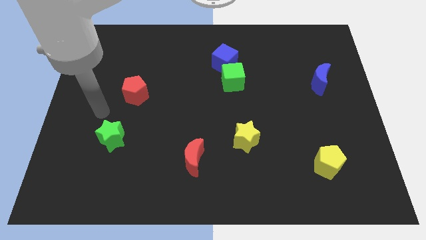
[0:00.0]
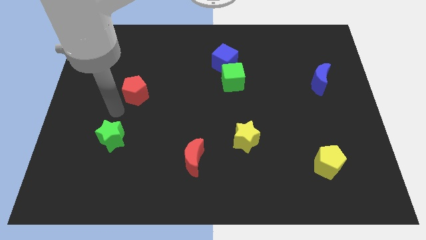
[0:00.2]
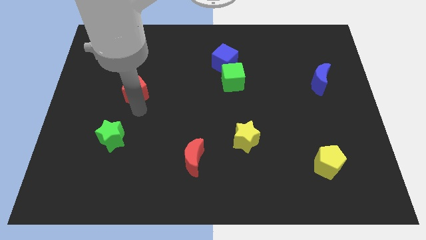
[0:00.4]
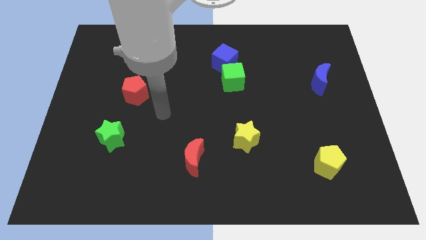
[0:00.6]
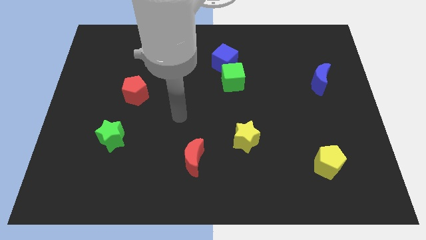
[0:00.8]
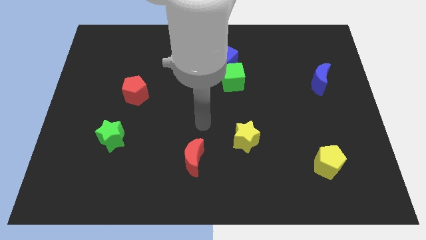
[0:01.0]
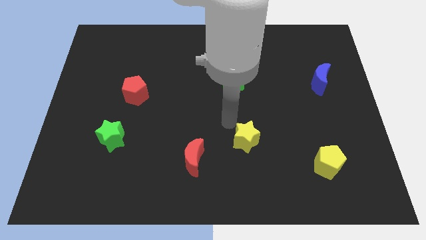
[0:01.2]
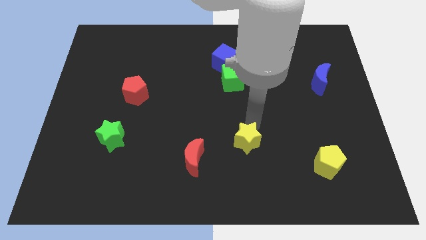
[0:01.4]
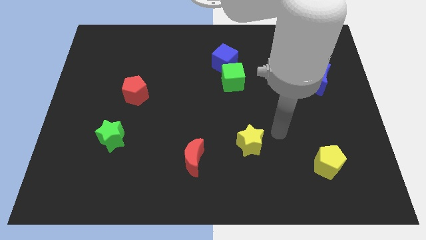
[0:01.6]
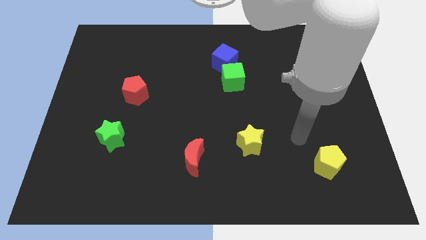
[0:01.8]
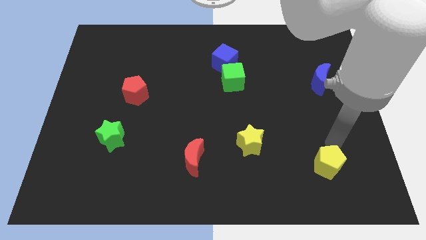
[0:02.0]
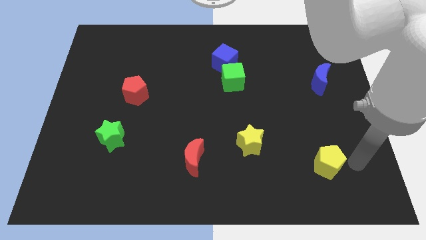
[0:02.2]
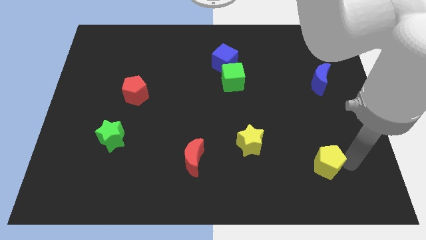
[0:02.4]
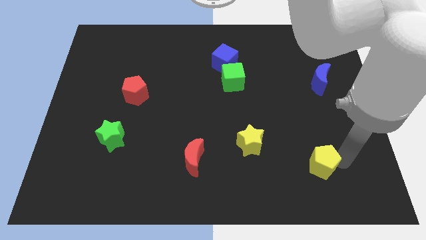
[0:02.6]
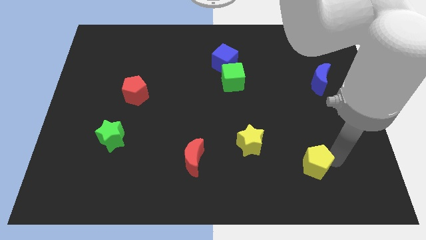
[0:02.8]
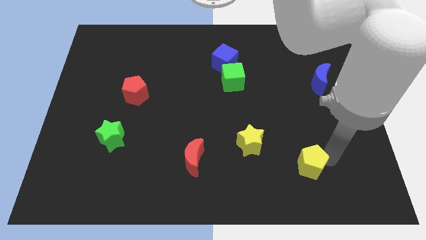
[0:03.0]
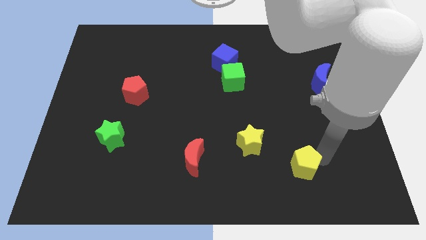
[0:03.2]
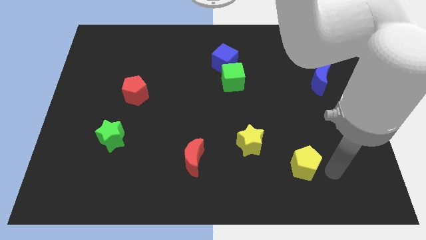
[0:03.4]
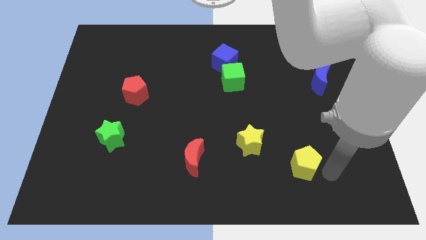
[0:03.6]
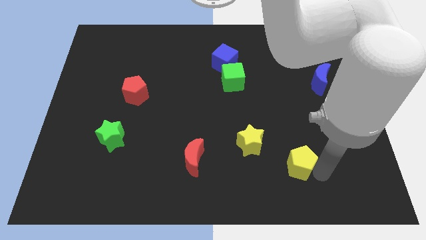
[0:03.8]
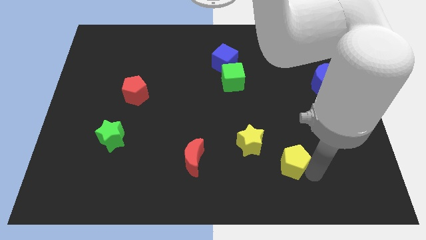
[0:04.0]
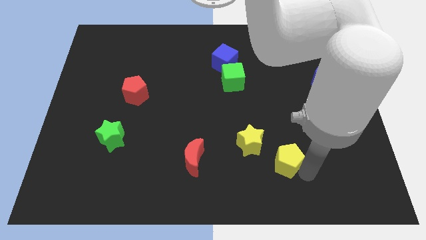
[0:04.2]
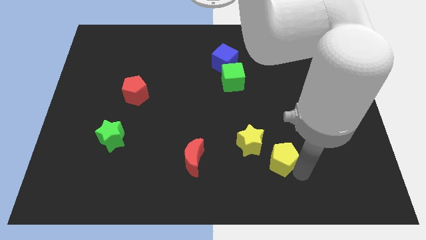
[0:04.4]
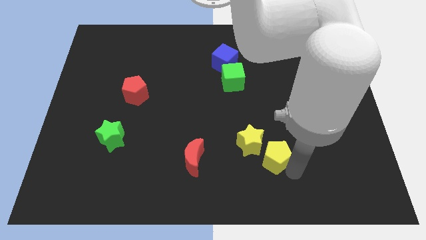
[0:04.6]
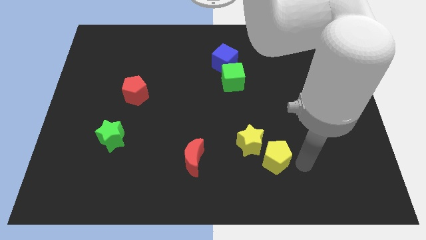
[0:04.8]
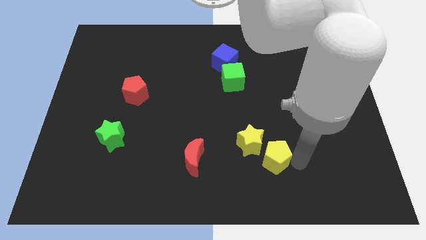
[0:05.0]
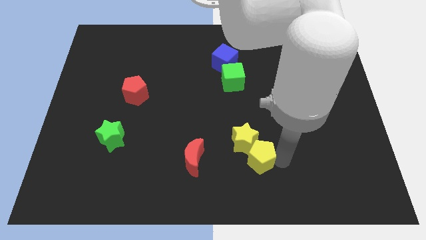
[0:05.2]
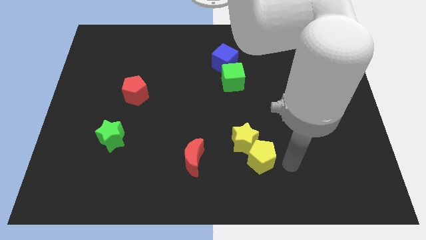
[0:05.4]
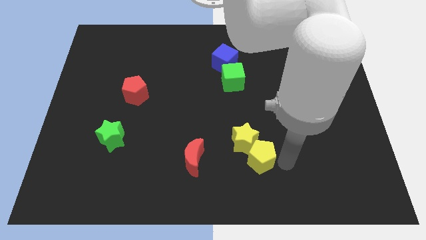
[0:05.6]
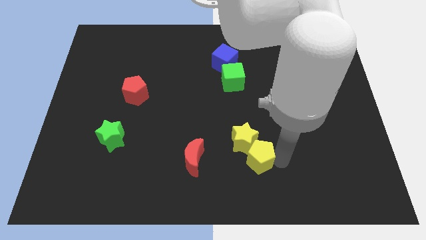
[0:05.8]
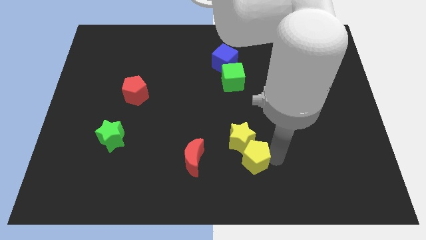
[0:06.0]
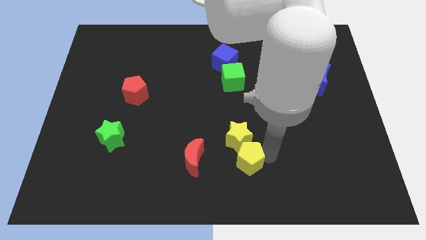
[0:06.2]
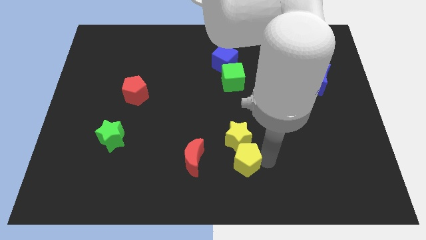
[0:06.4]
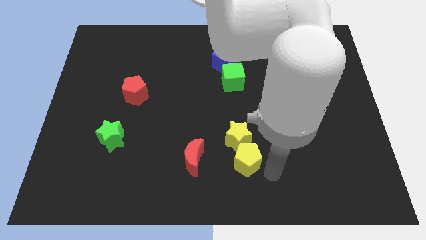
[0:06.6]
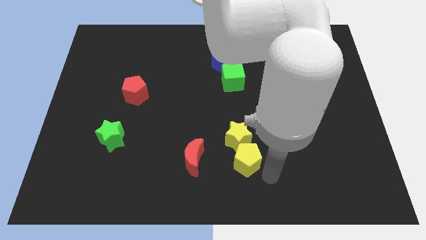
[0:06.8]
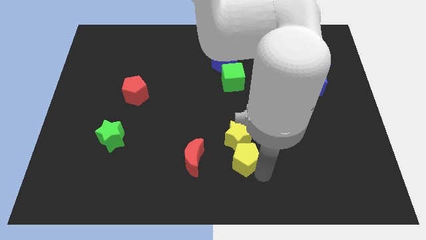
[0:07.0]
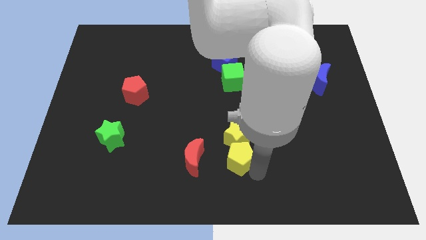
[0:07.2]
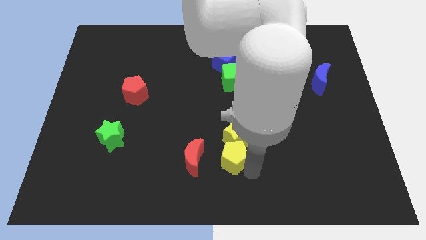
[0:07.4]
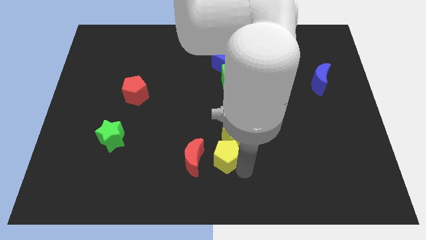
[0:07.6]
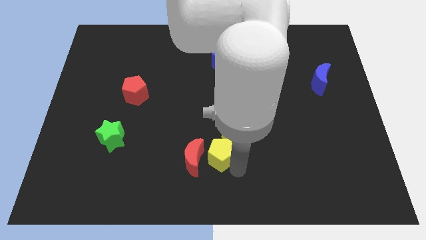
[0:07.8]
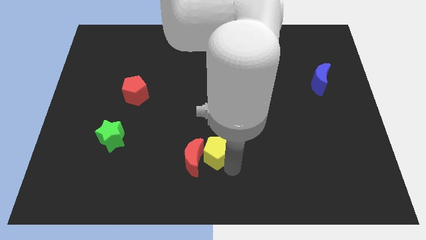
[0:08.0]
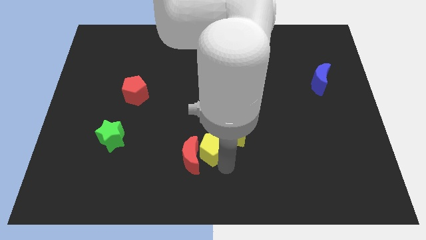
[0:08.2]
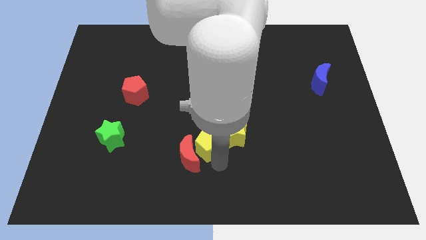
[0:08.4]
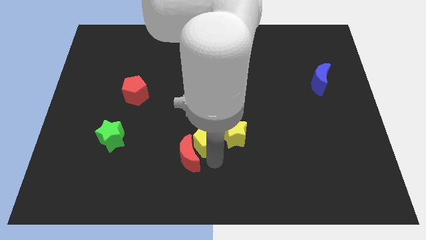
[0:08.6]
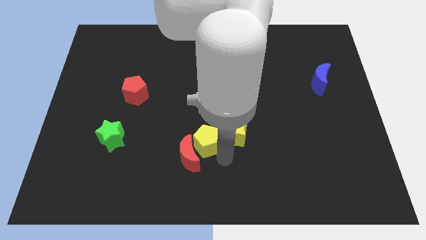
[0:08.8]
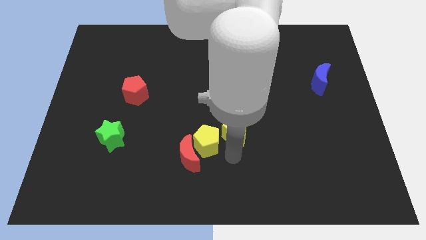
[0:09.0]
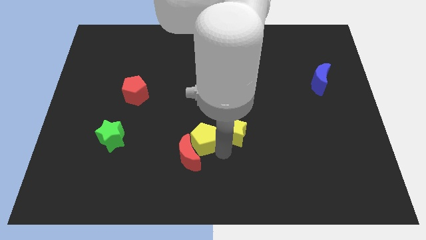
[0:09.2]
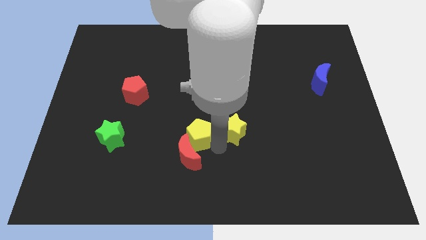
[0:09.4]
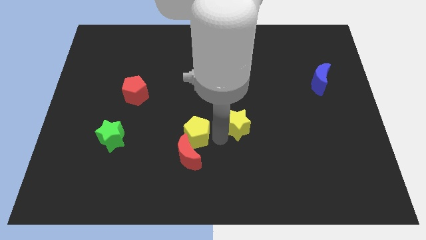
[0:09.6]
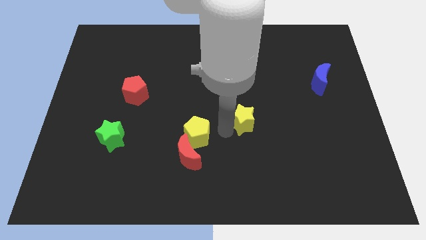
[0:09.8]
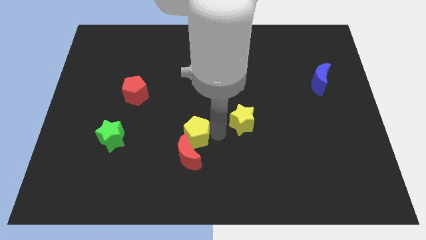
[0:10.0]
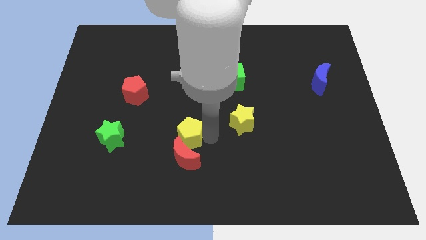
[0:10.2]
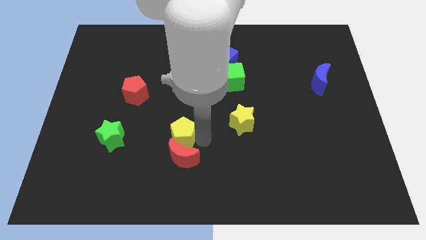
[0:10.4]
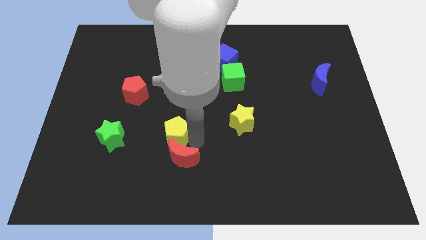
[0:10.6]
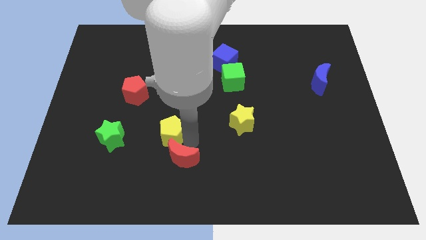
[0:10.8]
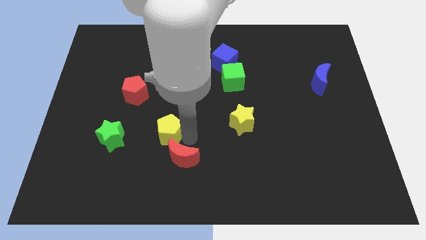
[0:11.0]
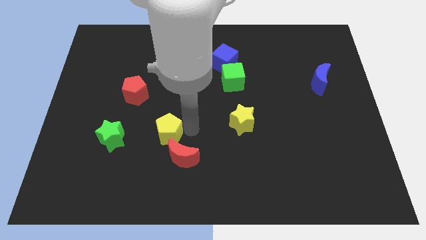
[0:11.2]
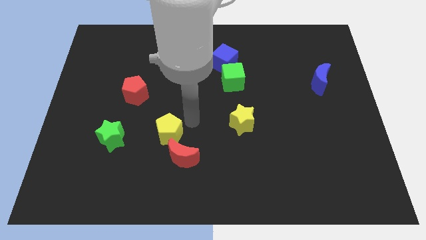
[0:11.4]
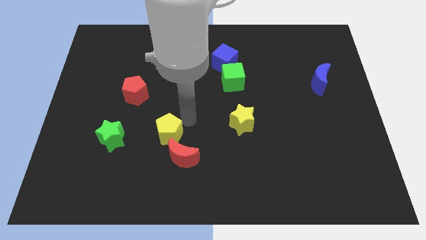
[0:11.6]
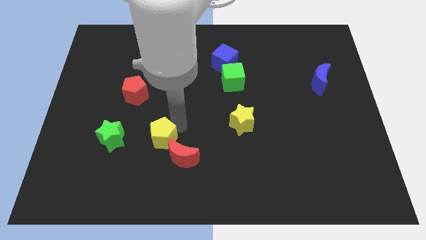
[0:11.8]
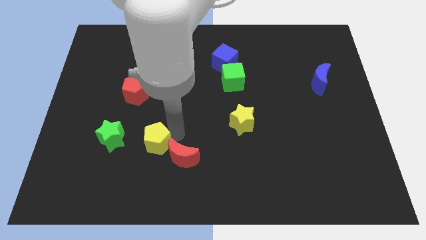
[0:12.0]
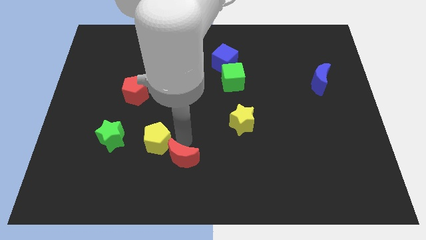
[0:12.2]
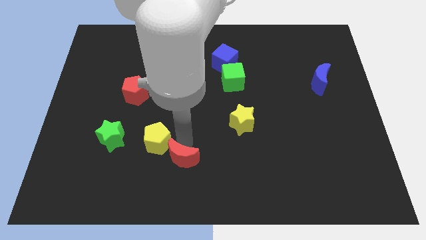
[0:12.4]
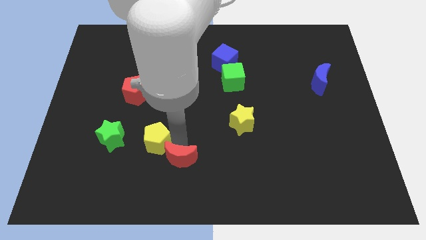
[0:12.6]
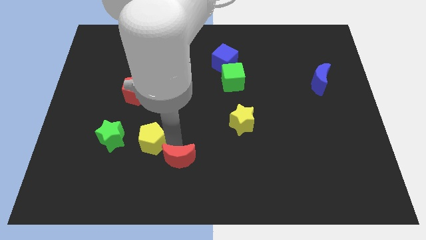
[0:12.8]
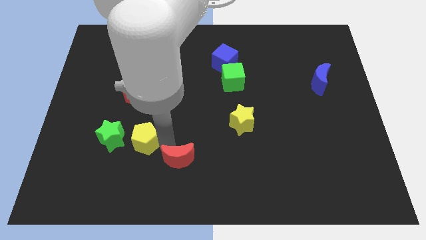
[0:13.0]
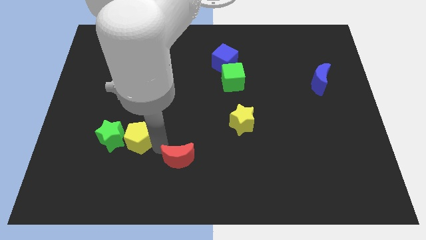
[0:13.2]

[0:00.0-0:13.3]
move the yellow pentagon next to the green star

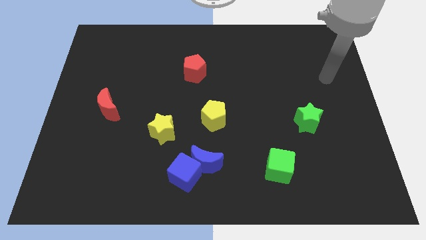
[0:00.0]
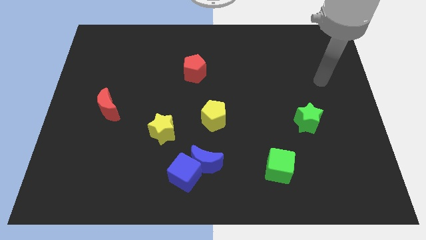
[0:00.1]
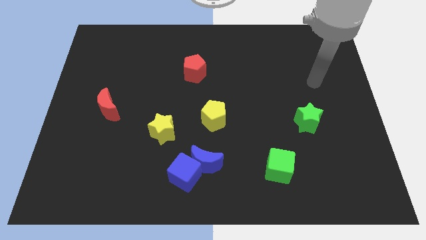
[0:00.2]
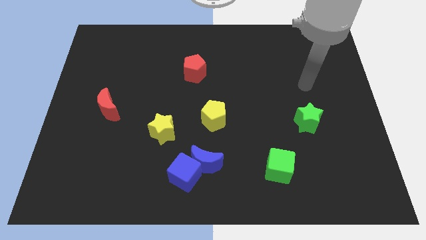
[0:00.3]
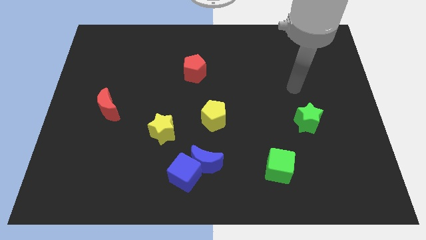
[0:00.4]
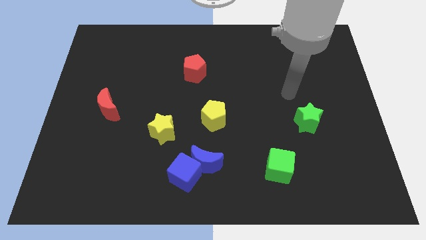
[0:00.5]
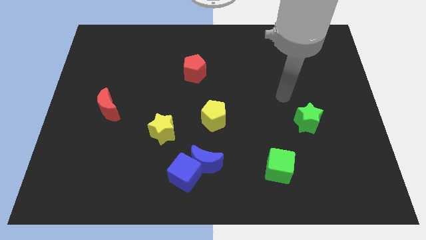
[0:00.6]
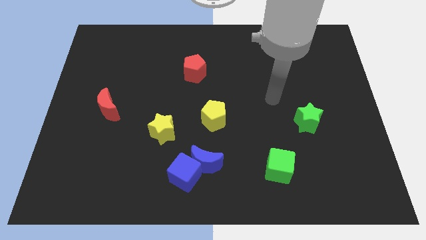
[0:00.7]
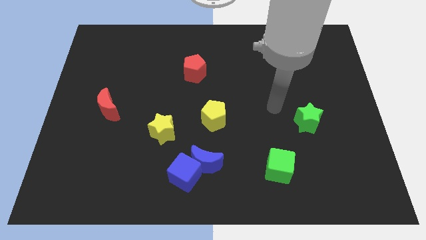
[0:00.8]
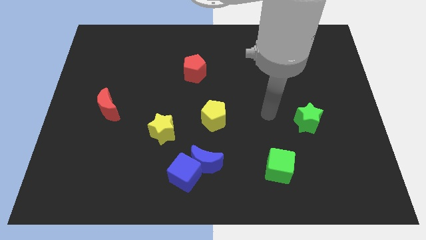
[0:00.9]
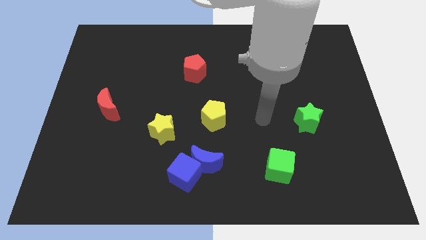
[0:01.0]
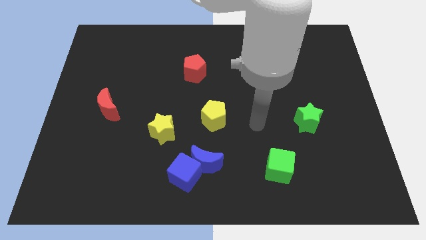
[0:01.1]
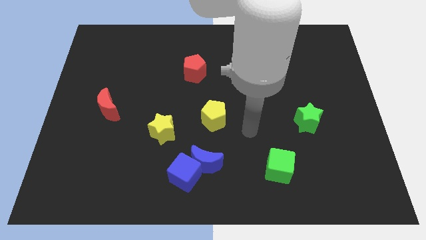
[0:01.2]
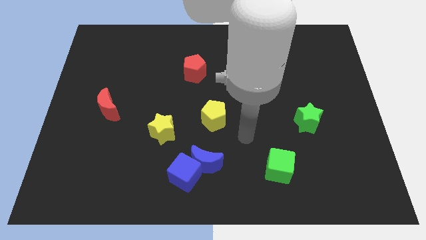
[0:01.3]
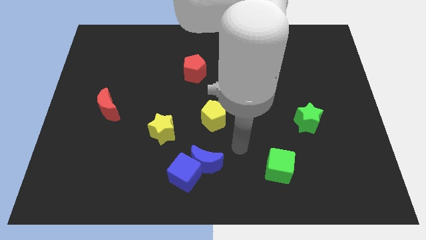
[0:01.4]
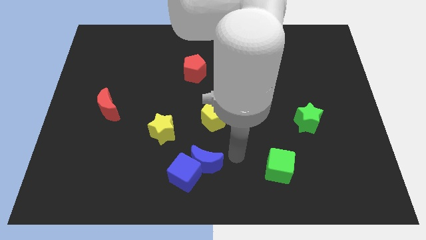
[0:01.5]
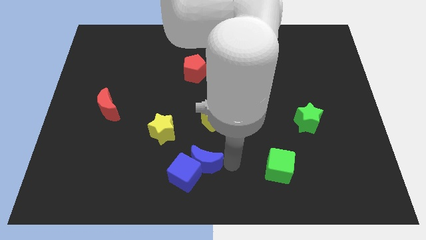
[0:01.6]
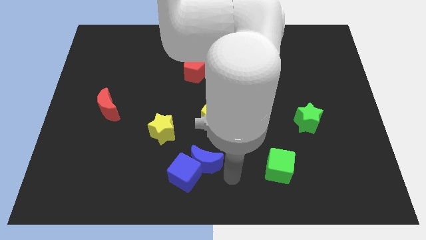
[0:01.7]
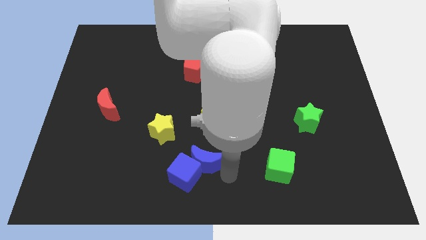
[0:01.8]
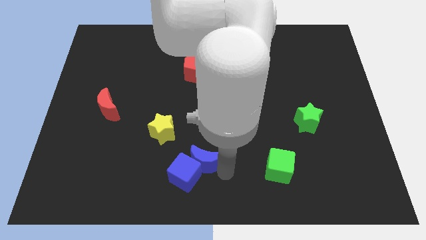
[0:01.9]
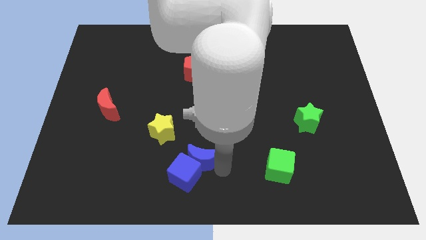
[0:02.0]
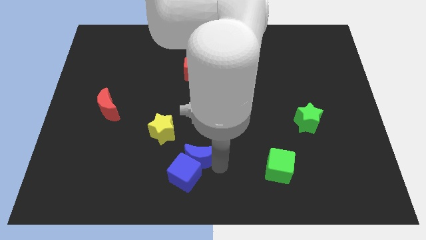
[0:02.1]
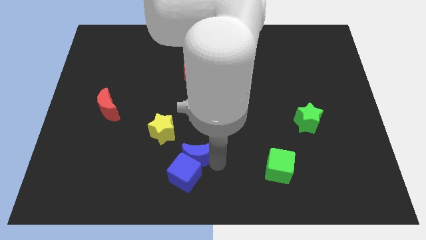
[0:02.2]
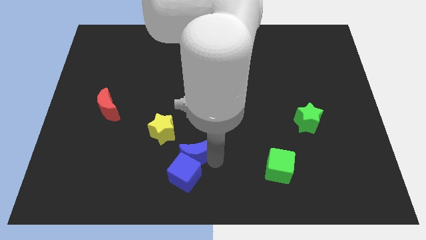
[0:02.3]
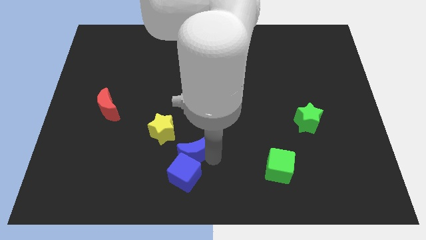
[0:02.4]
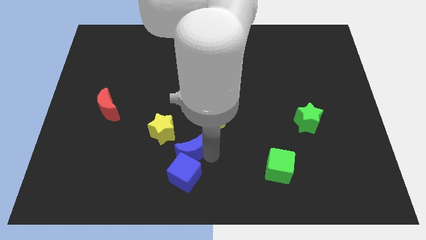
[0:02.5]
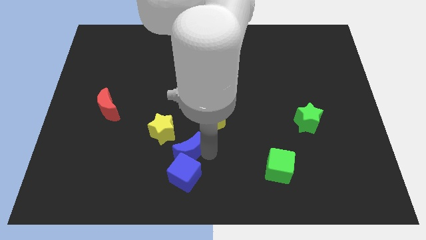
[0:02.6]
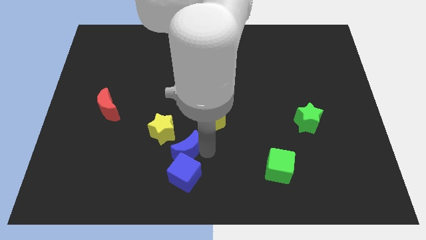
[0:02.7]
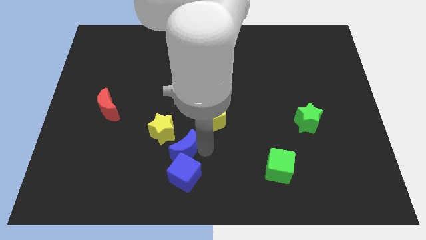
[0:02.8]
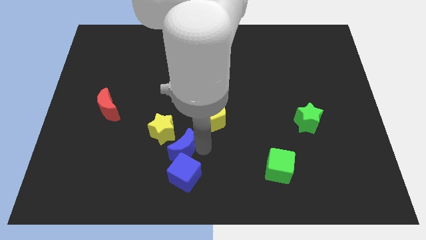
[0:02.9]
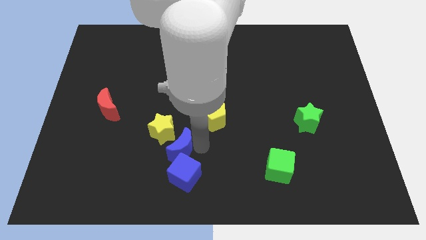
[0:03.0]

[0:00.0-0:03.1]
move the blue moon towards the yellow star
